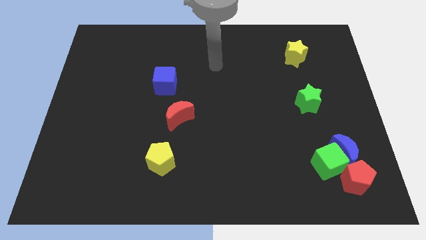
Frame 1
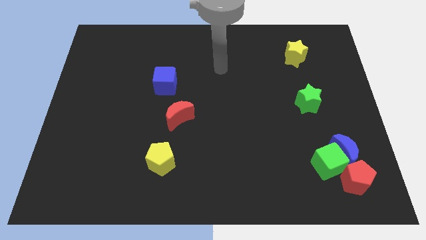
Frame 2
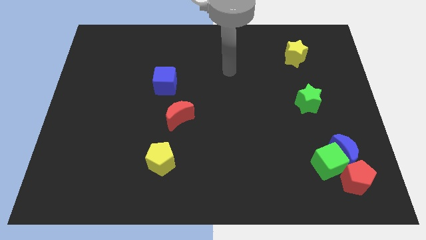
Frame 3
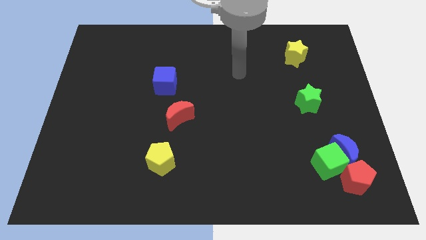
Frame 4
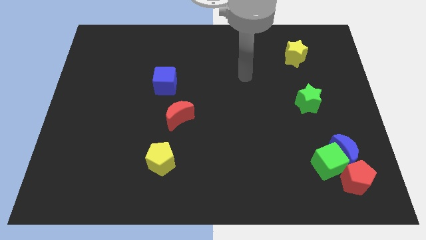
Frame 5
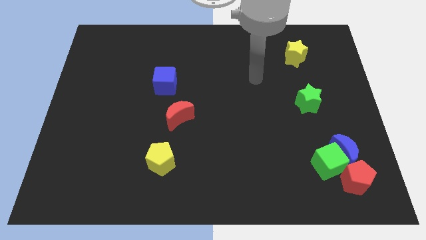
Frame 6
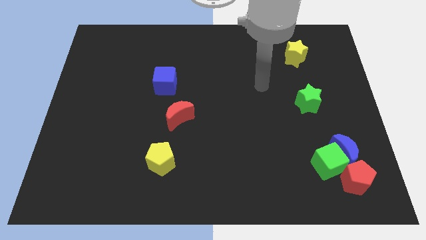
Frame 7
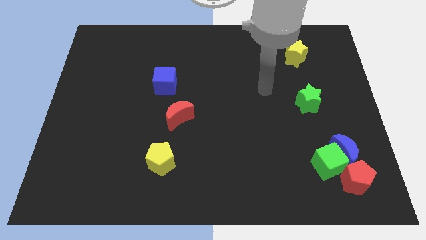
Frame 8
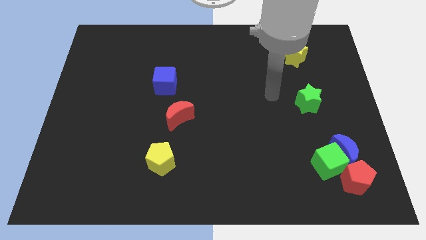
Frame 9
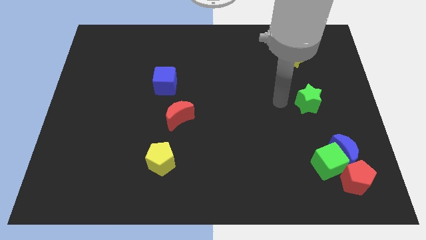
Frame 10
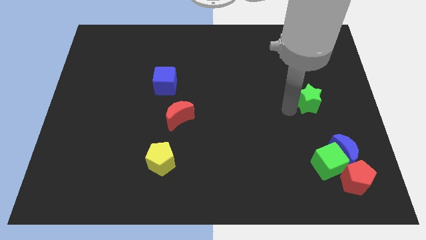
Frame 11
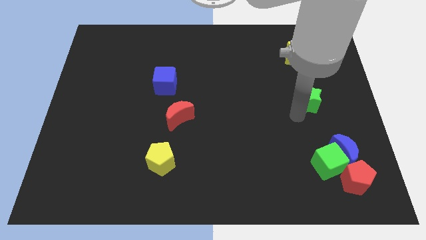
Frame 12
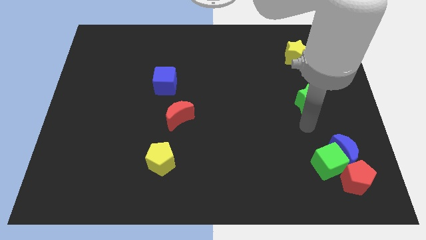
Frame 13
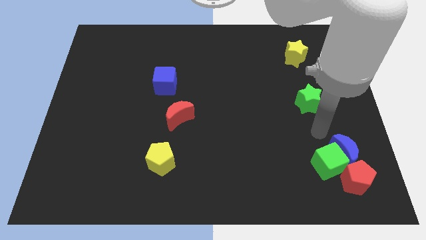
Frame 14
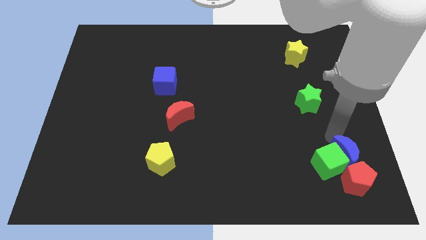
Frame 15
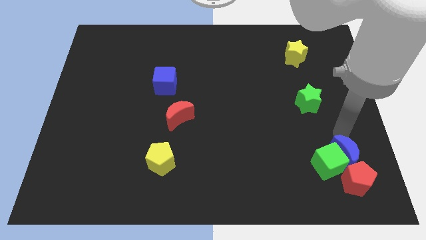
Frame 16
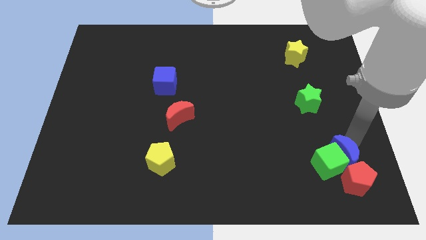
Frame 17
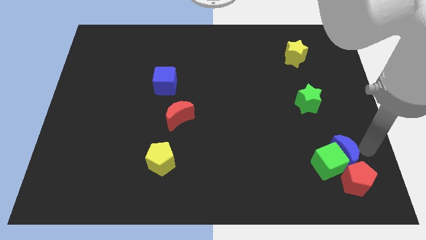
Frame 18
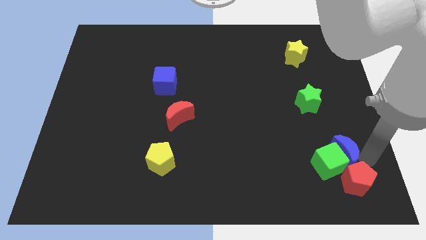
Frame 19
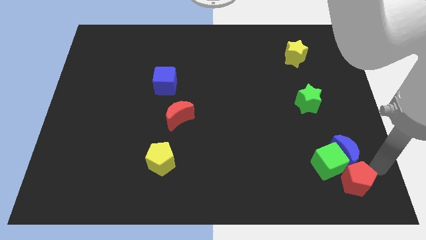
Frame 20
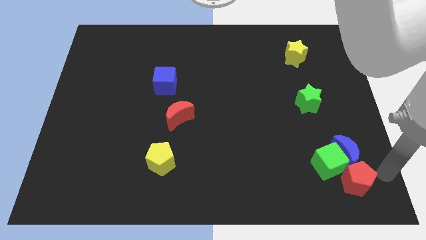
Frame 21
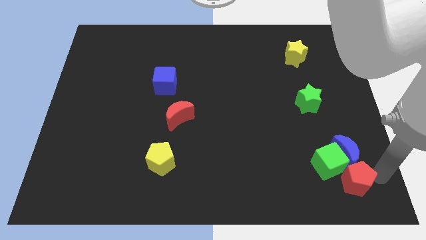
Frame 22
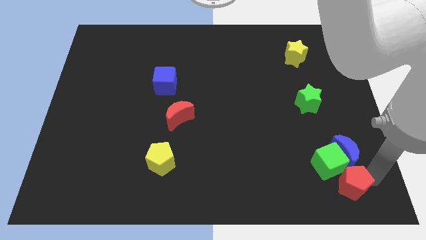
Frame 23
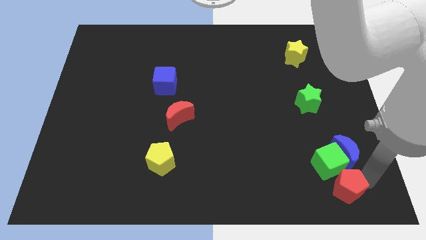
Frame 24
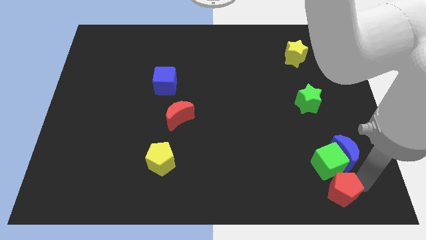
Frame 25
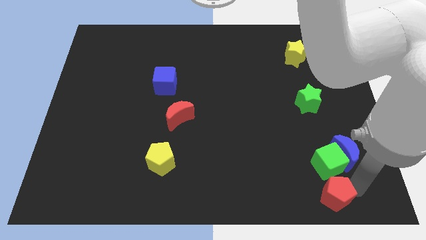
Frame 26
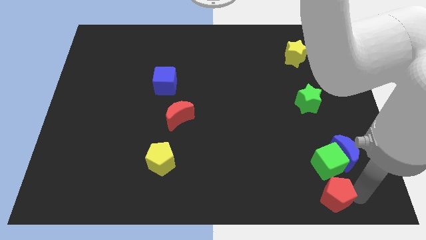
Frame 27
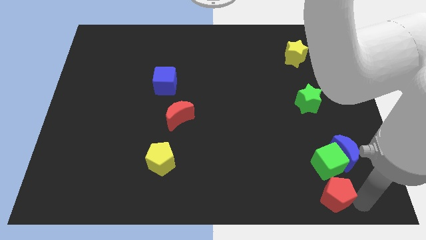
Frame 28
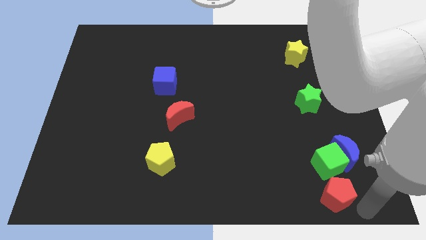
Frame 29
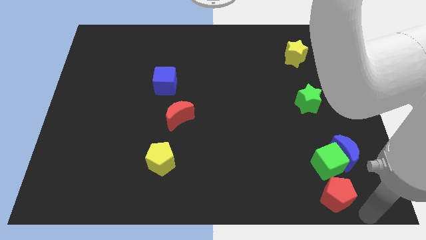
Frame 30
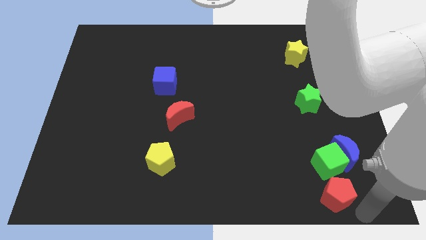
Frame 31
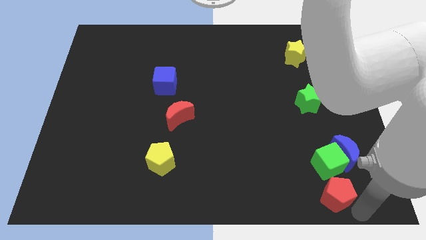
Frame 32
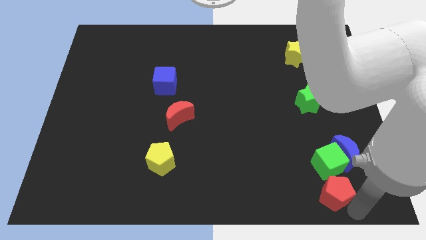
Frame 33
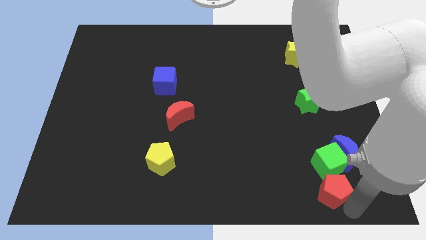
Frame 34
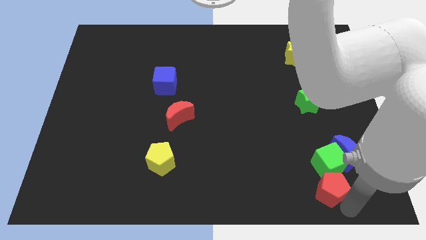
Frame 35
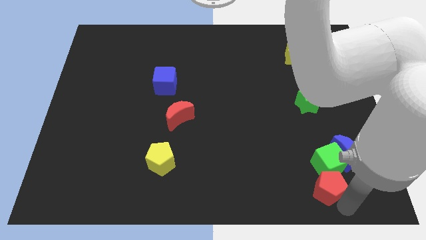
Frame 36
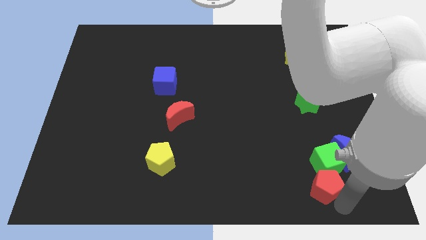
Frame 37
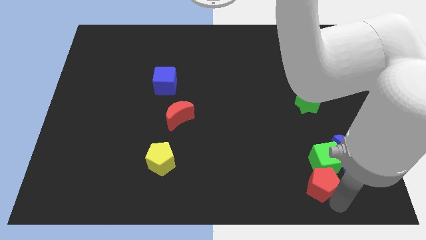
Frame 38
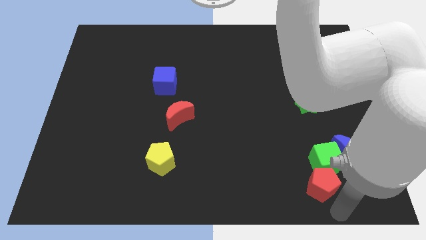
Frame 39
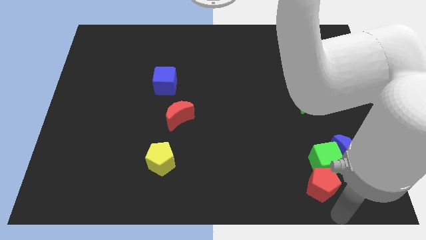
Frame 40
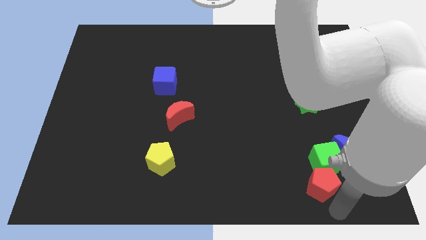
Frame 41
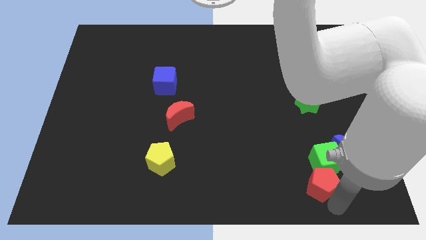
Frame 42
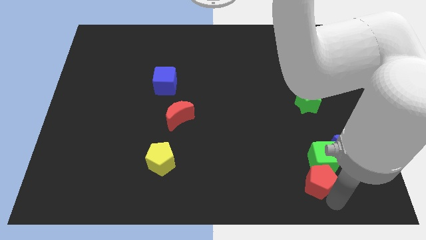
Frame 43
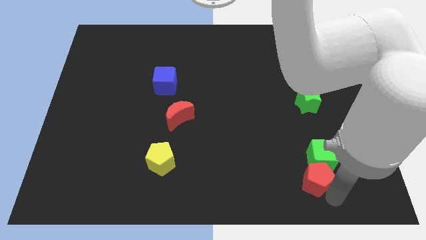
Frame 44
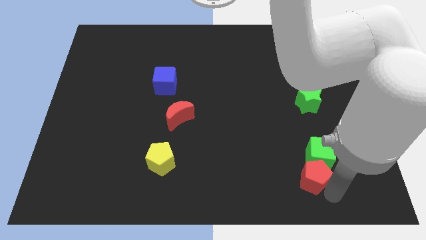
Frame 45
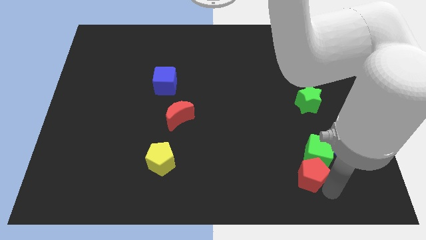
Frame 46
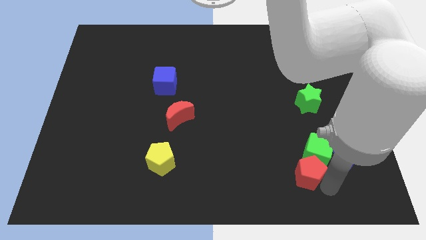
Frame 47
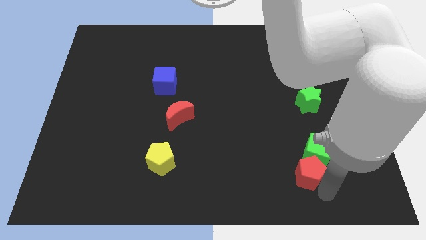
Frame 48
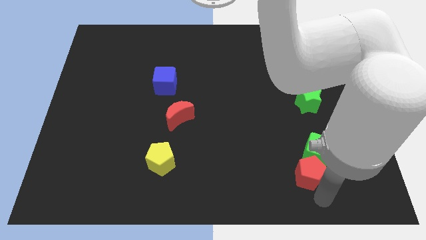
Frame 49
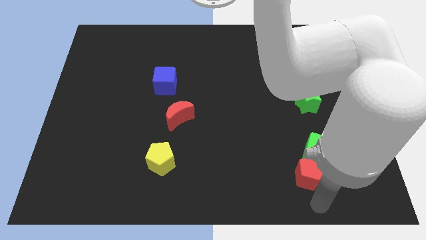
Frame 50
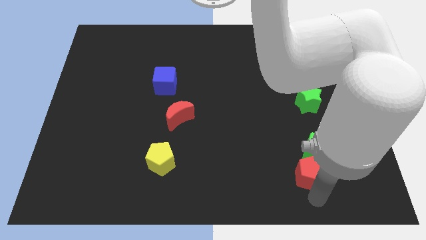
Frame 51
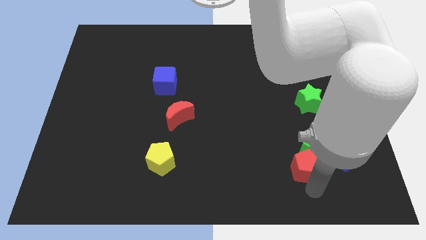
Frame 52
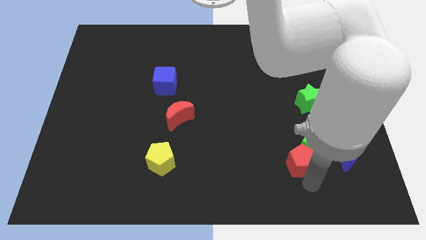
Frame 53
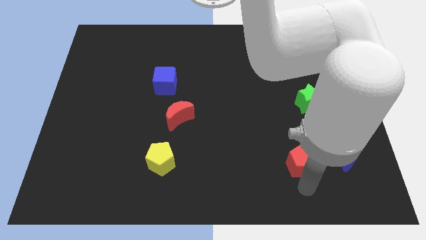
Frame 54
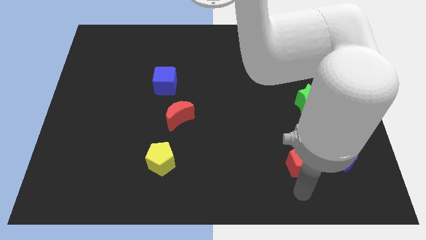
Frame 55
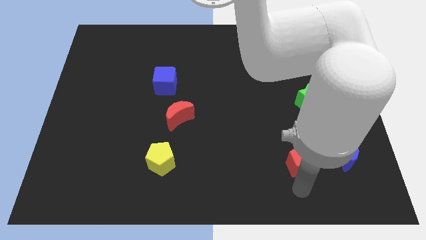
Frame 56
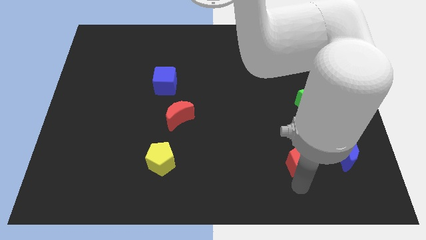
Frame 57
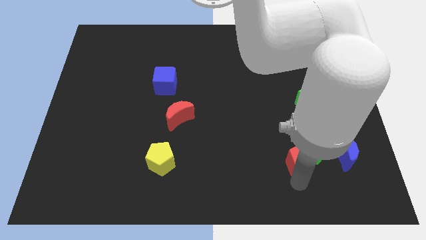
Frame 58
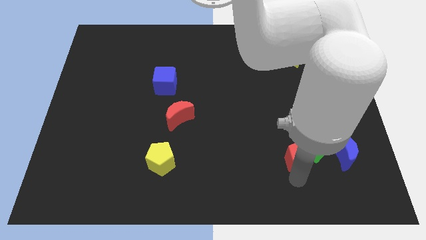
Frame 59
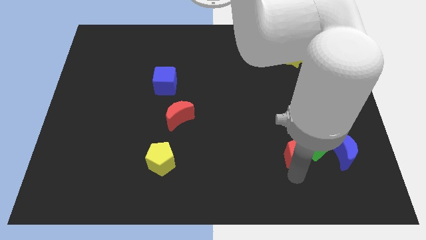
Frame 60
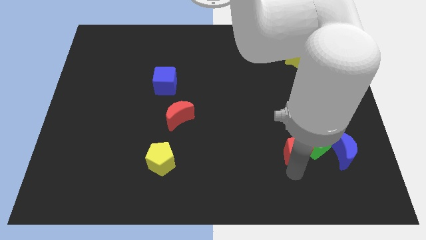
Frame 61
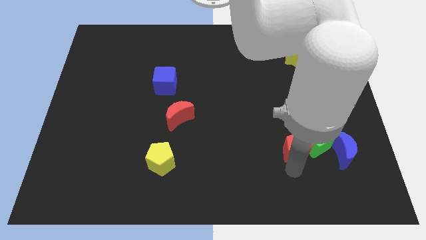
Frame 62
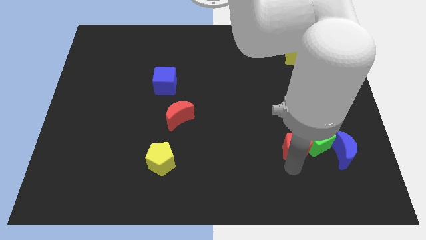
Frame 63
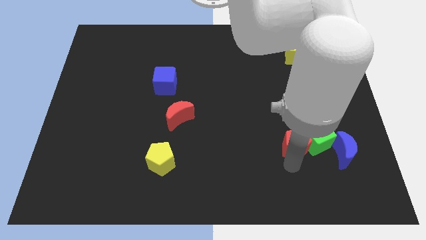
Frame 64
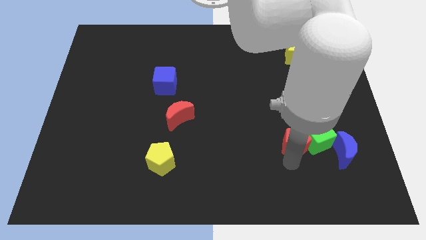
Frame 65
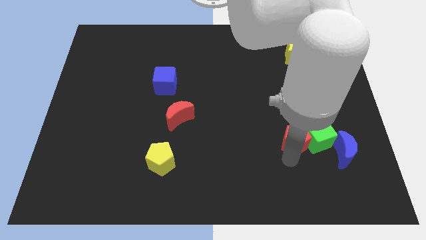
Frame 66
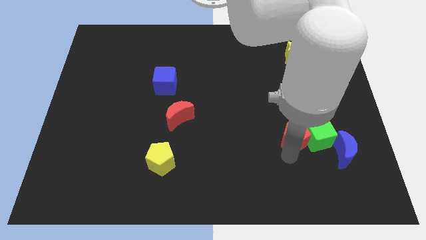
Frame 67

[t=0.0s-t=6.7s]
move the red pentagon to the bottom left side of the green star
